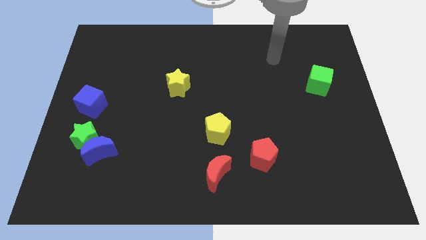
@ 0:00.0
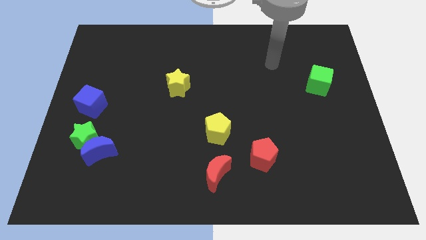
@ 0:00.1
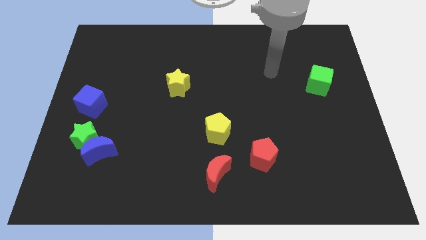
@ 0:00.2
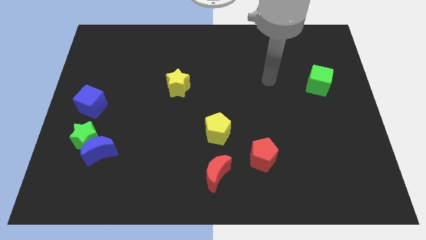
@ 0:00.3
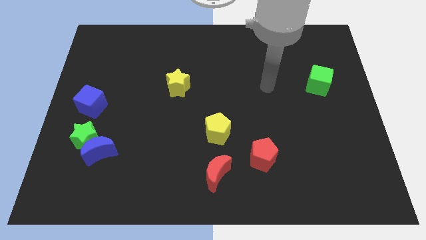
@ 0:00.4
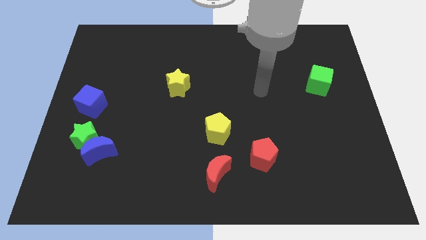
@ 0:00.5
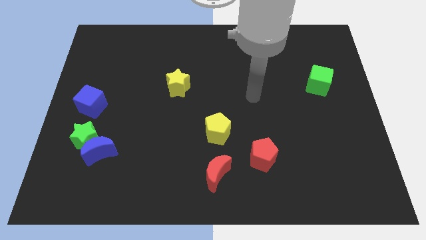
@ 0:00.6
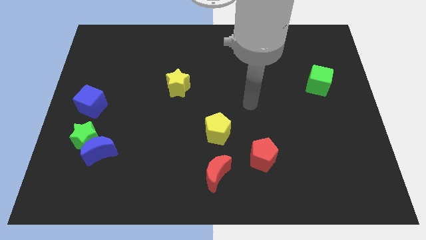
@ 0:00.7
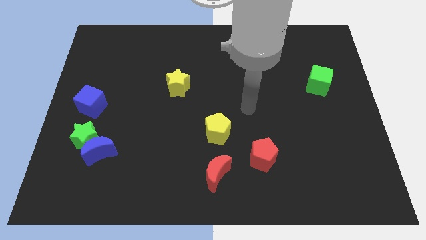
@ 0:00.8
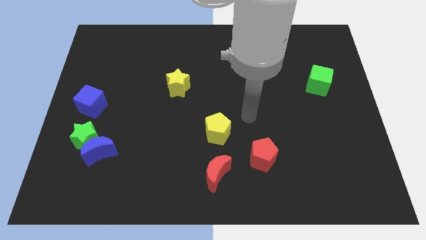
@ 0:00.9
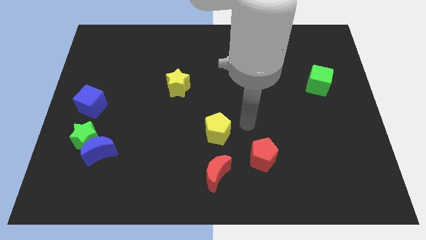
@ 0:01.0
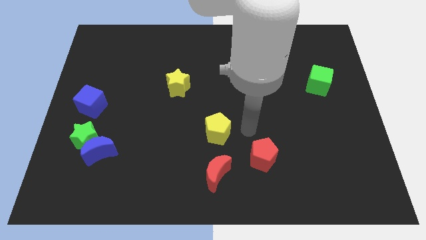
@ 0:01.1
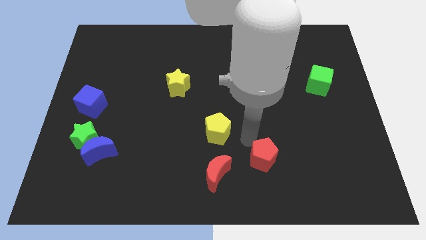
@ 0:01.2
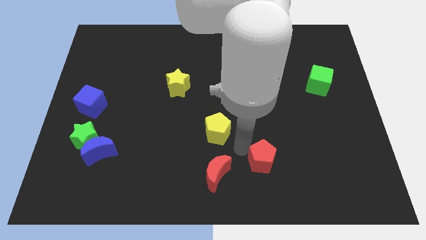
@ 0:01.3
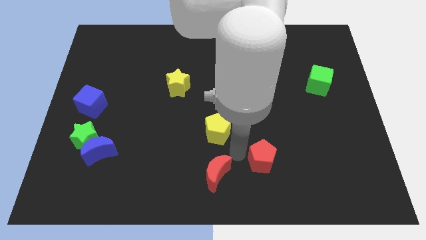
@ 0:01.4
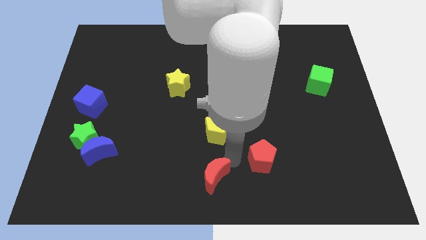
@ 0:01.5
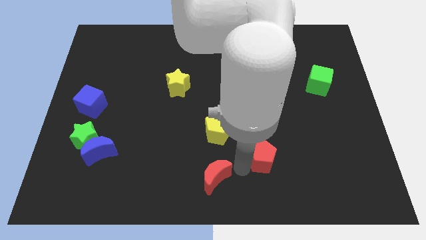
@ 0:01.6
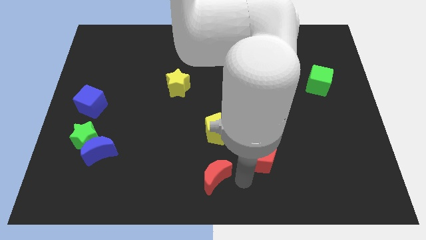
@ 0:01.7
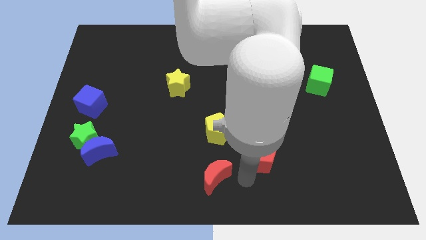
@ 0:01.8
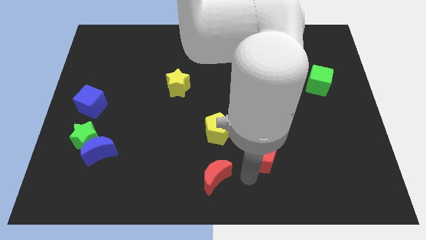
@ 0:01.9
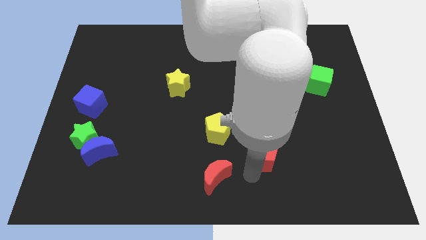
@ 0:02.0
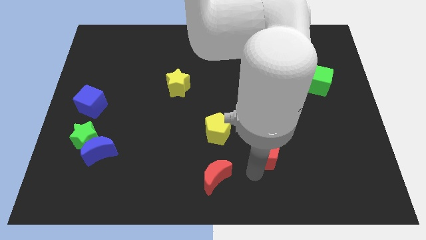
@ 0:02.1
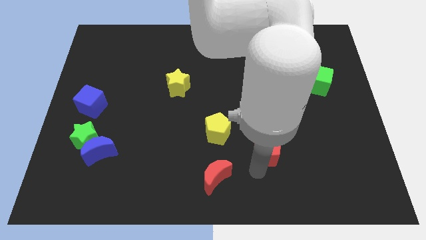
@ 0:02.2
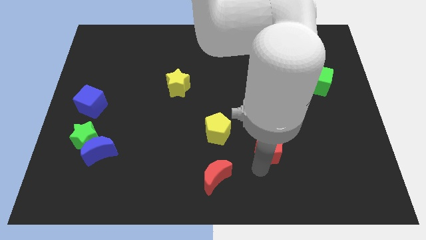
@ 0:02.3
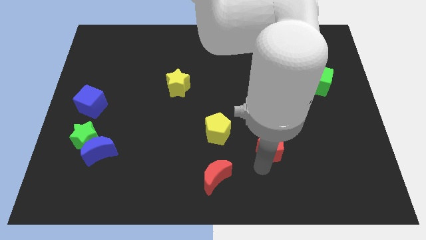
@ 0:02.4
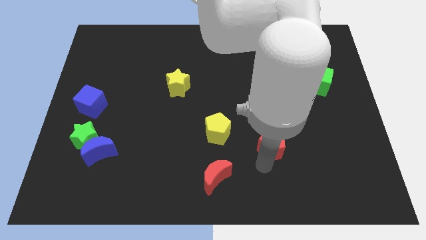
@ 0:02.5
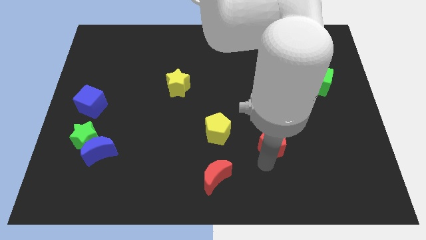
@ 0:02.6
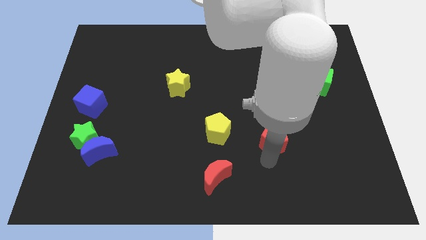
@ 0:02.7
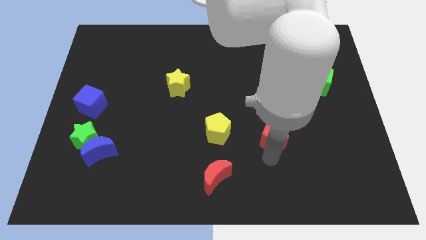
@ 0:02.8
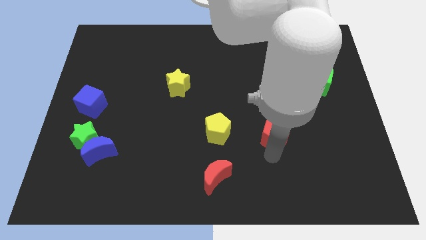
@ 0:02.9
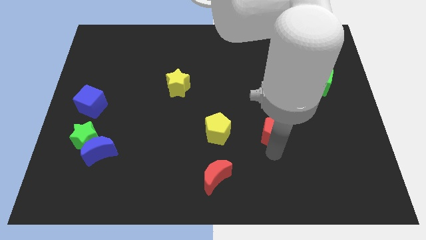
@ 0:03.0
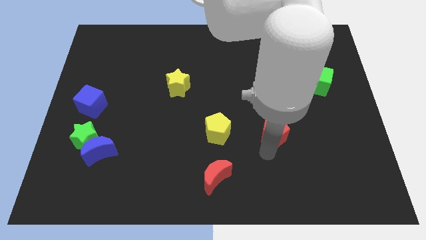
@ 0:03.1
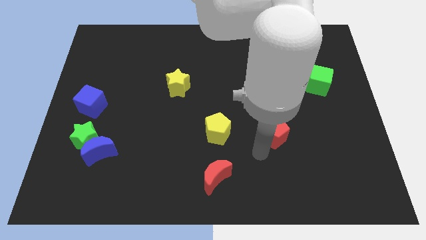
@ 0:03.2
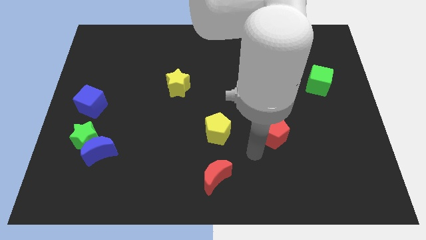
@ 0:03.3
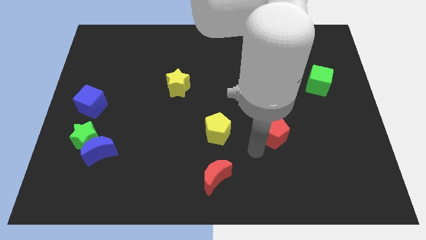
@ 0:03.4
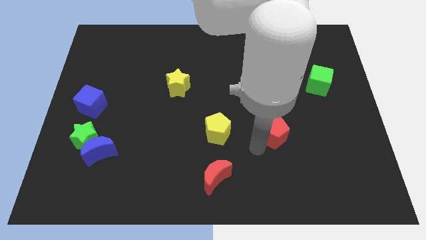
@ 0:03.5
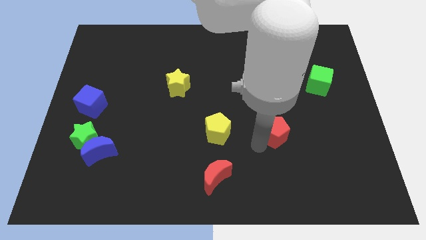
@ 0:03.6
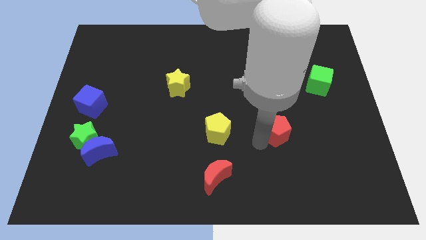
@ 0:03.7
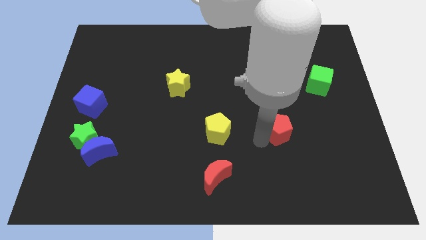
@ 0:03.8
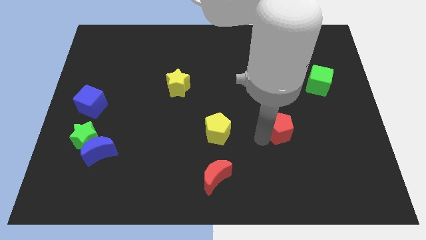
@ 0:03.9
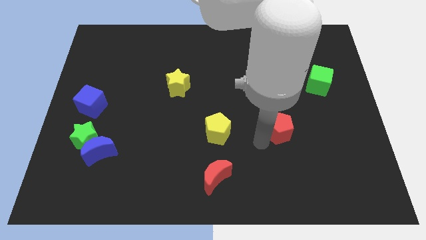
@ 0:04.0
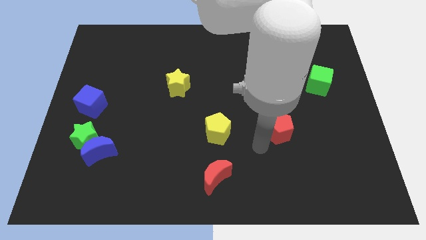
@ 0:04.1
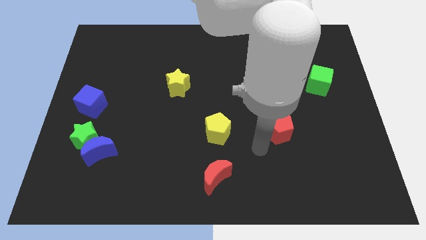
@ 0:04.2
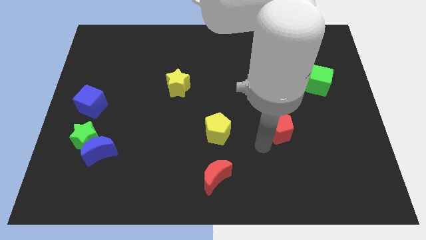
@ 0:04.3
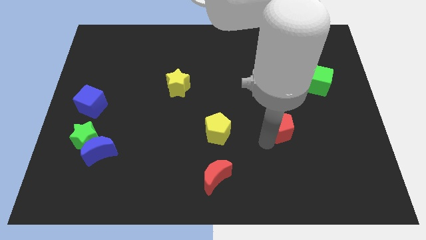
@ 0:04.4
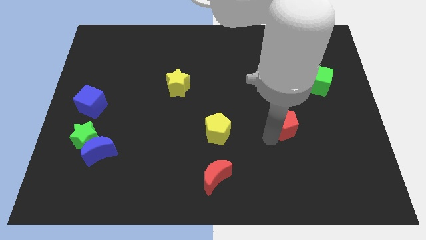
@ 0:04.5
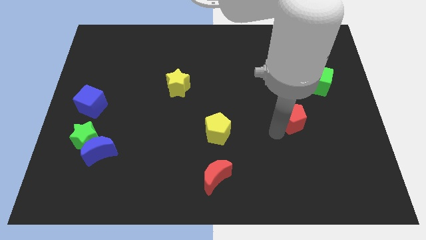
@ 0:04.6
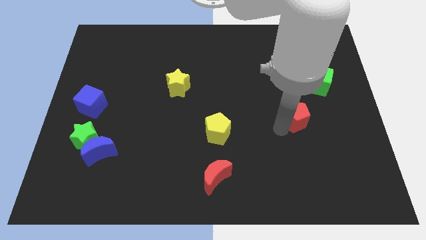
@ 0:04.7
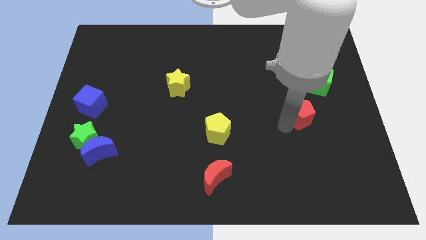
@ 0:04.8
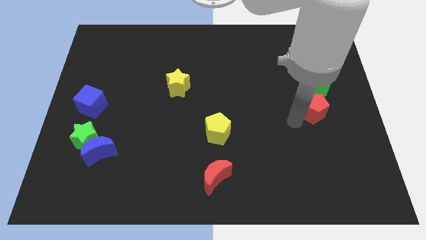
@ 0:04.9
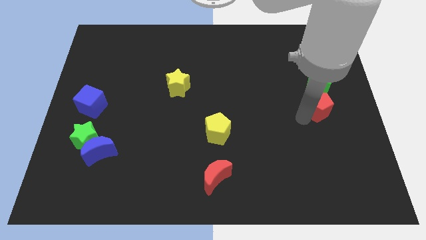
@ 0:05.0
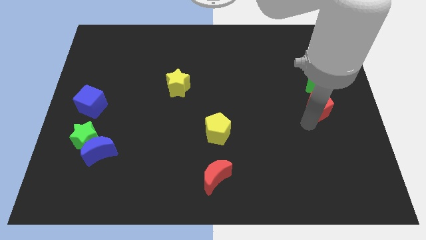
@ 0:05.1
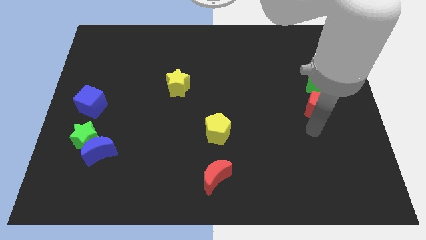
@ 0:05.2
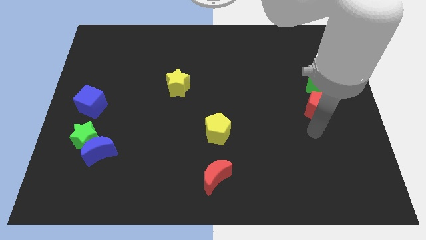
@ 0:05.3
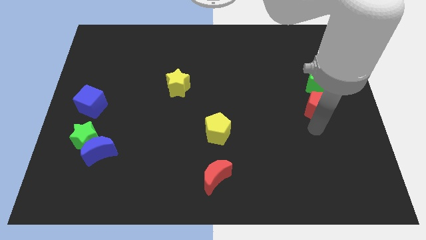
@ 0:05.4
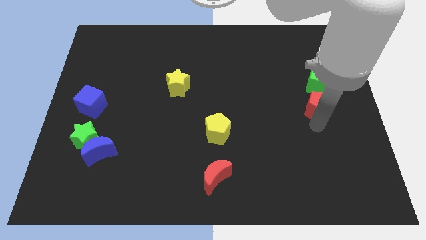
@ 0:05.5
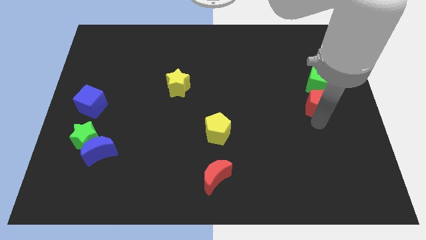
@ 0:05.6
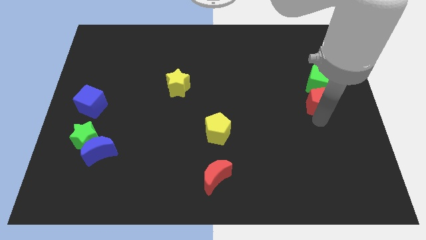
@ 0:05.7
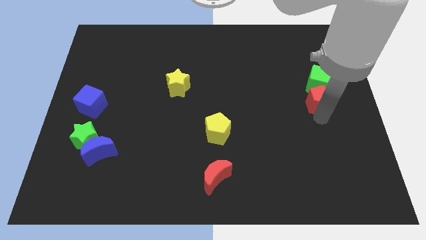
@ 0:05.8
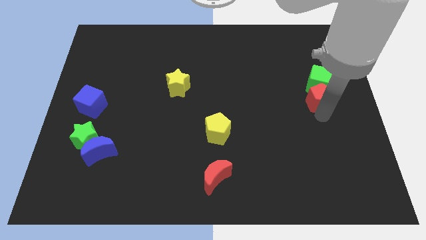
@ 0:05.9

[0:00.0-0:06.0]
put the red pentagon towards the green cube

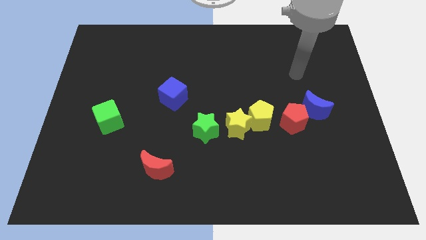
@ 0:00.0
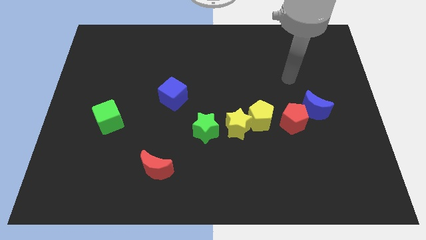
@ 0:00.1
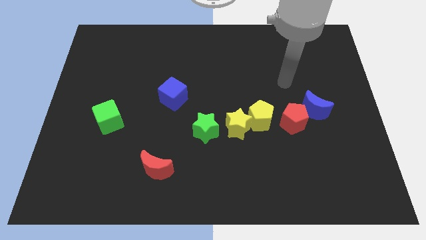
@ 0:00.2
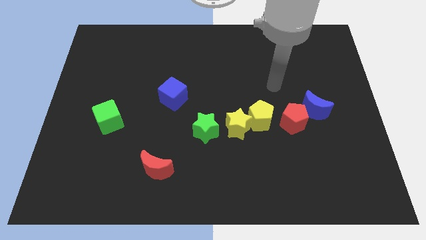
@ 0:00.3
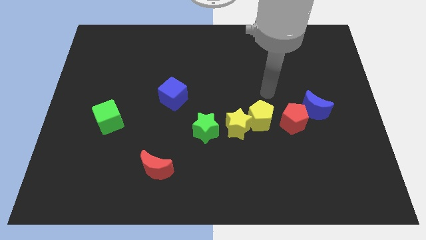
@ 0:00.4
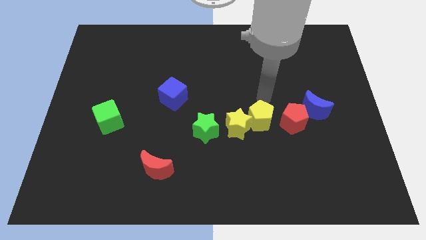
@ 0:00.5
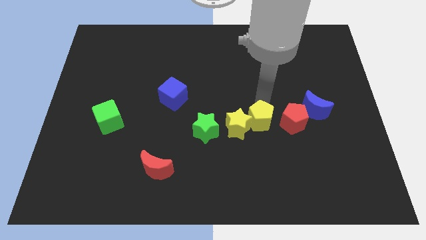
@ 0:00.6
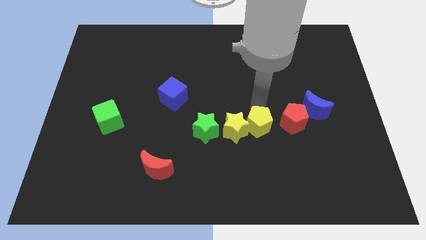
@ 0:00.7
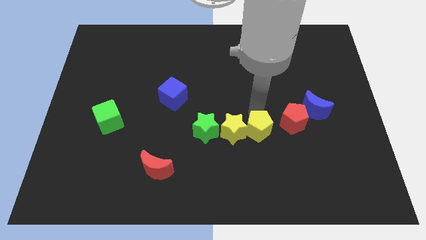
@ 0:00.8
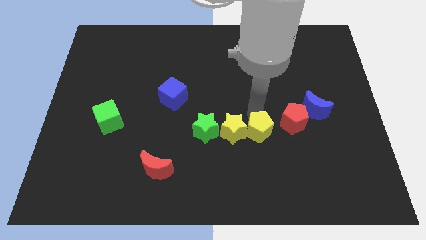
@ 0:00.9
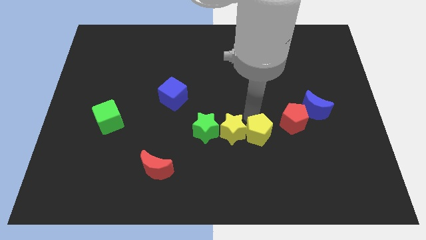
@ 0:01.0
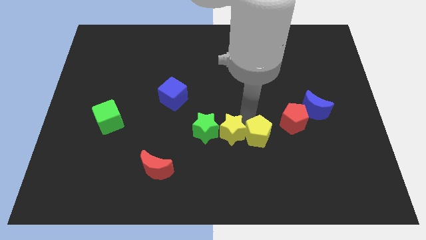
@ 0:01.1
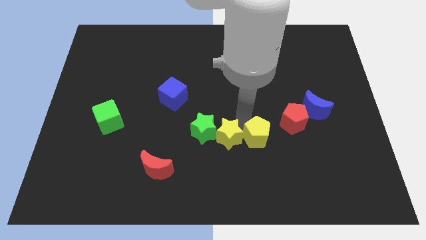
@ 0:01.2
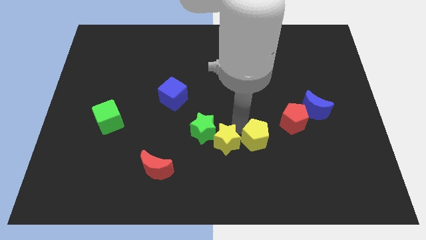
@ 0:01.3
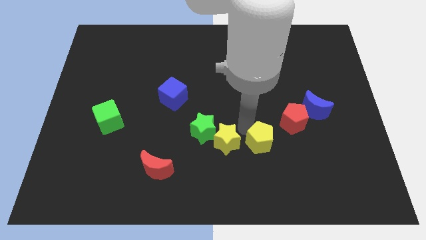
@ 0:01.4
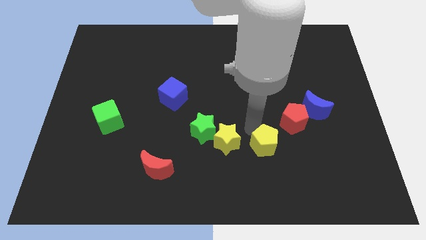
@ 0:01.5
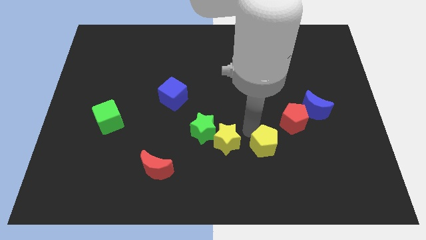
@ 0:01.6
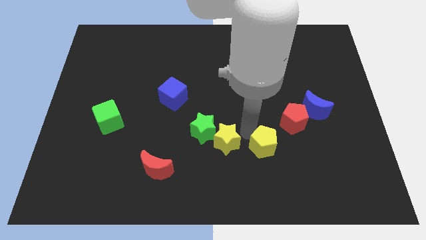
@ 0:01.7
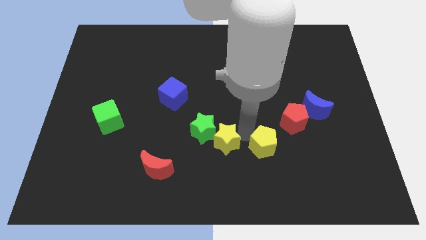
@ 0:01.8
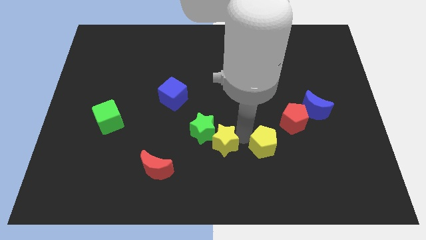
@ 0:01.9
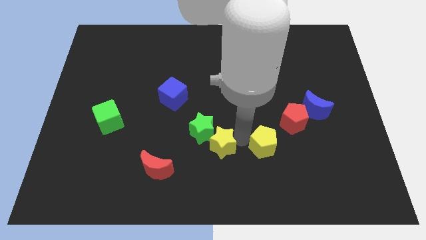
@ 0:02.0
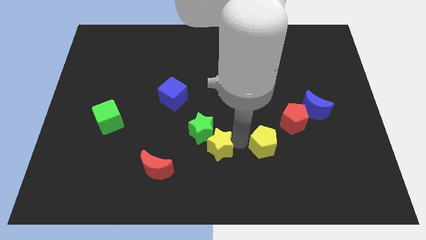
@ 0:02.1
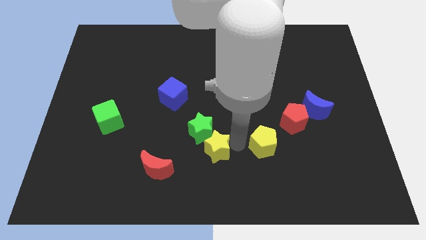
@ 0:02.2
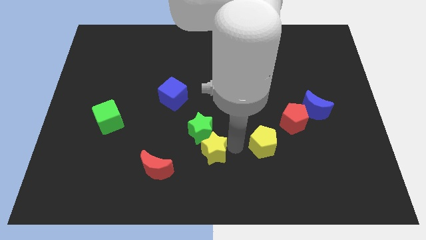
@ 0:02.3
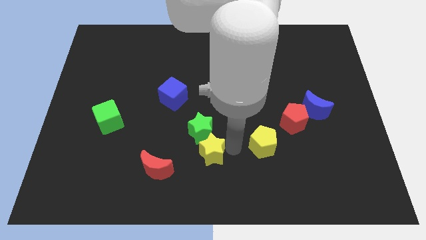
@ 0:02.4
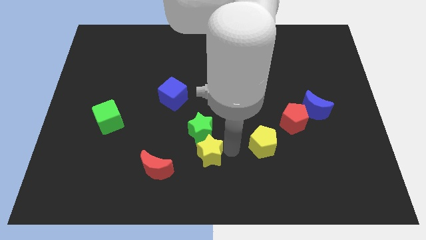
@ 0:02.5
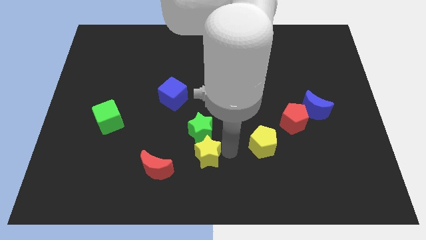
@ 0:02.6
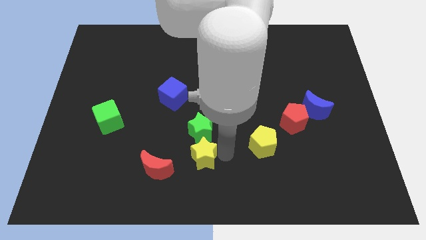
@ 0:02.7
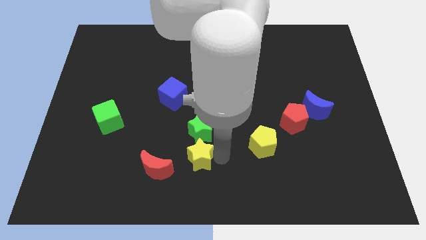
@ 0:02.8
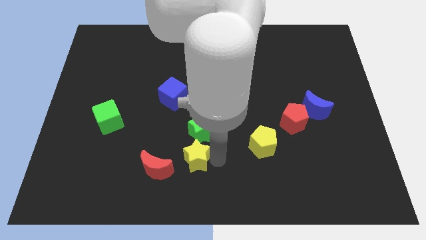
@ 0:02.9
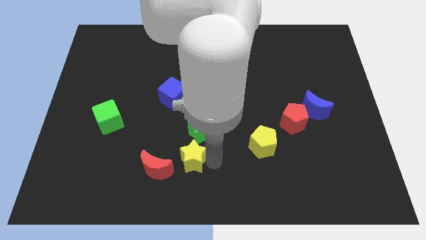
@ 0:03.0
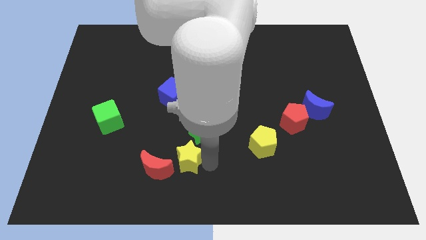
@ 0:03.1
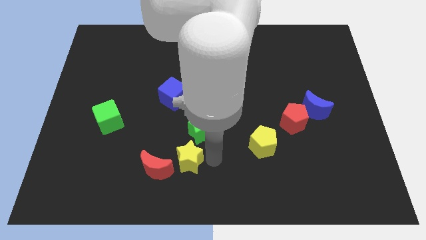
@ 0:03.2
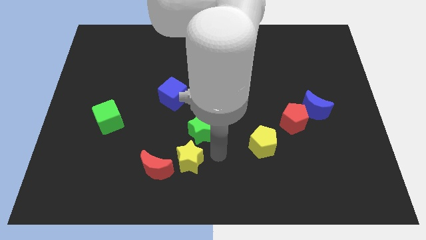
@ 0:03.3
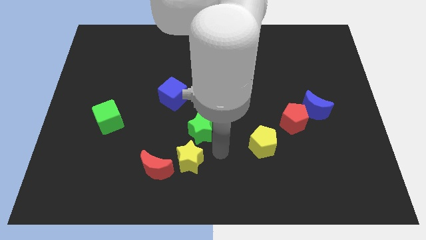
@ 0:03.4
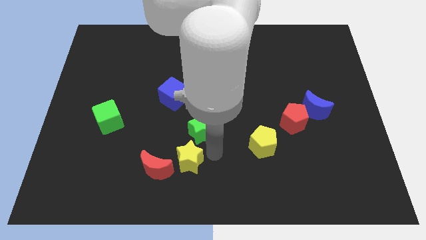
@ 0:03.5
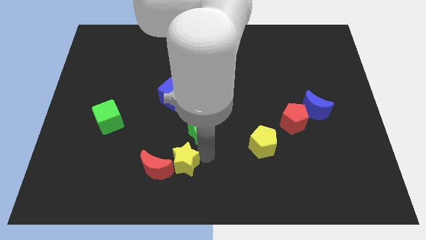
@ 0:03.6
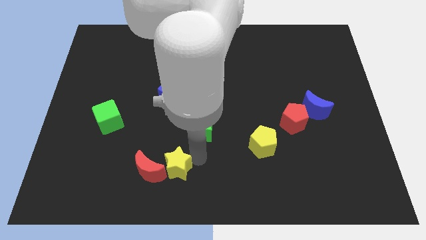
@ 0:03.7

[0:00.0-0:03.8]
slide the yellow star close to the red moon
